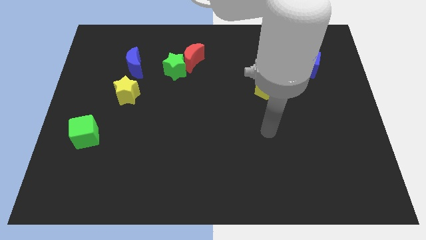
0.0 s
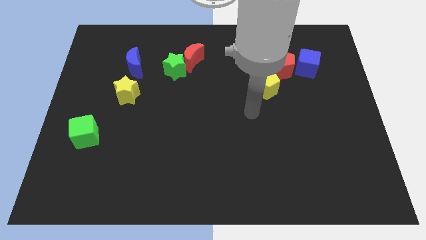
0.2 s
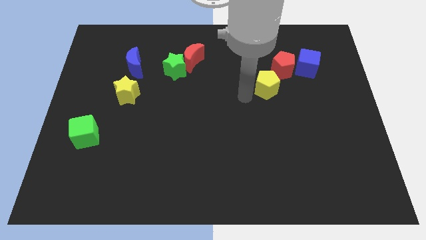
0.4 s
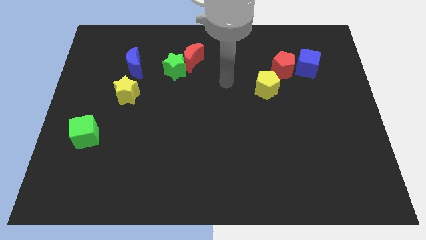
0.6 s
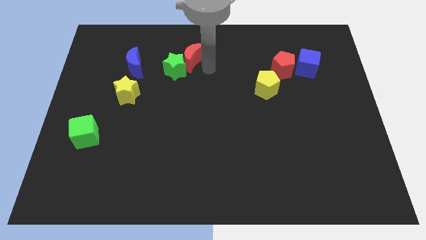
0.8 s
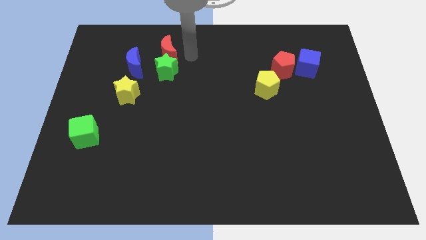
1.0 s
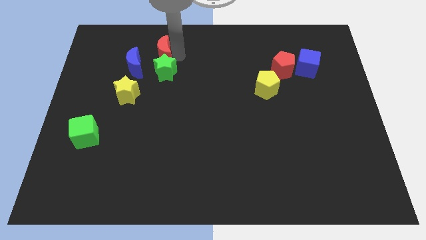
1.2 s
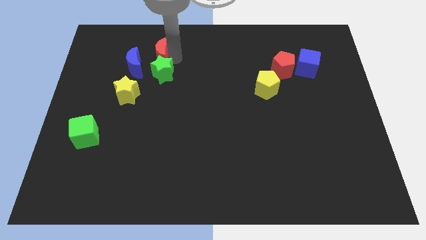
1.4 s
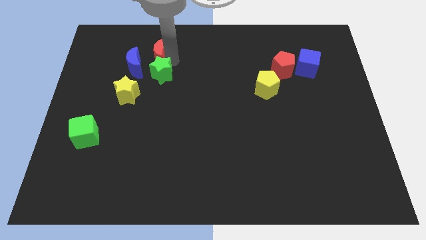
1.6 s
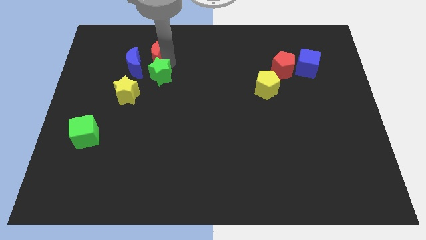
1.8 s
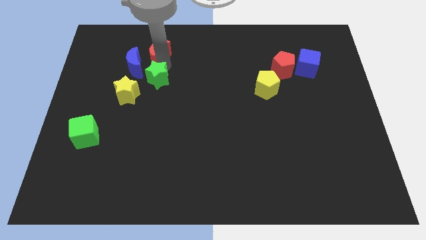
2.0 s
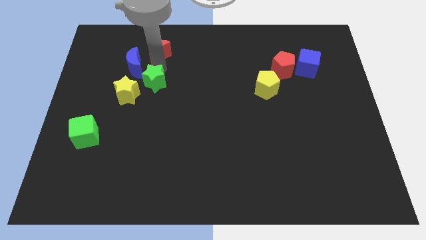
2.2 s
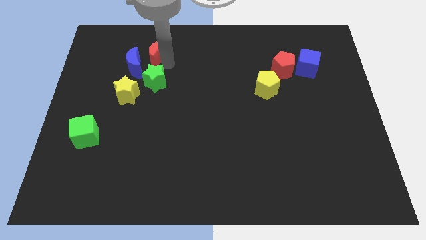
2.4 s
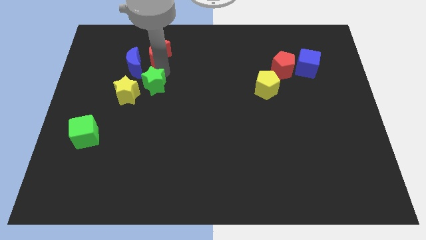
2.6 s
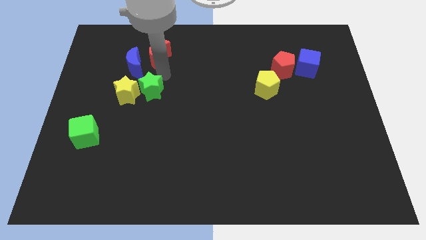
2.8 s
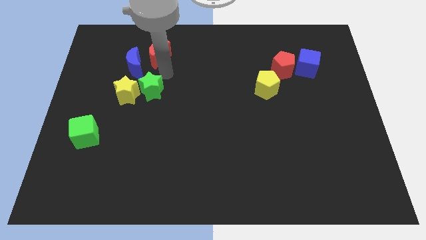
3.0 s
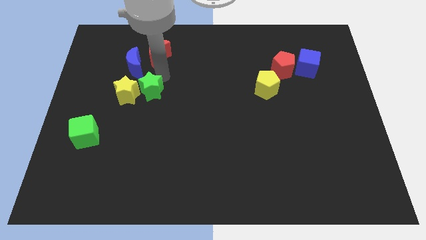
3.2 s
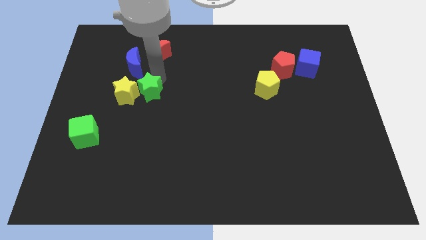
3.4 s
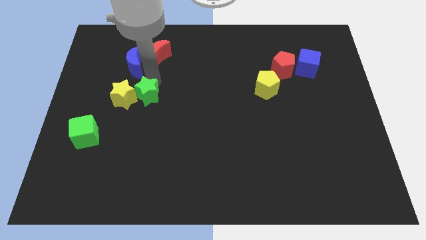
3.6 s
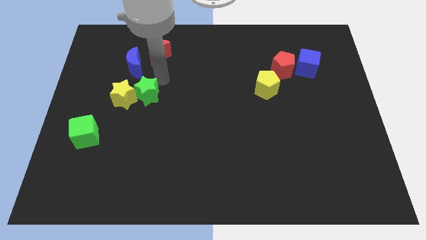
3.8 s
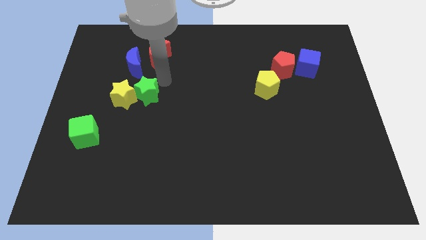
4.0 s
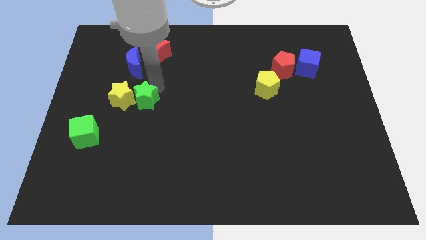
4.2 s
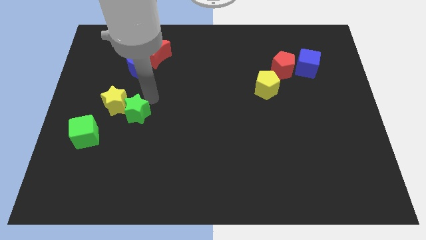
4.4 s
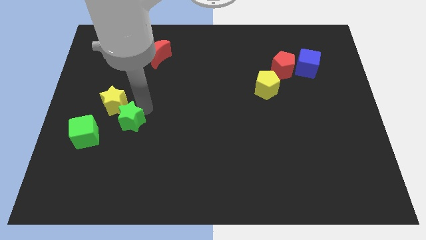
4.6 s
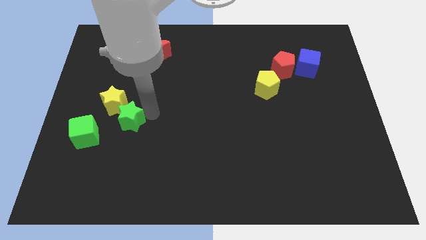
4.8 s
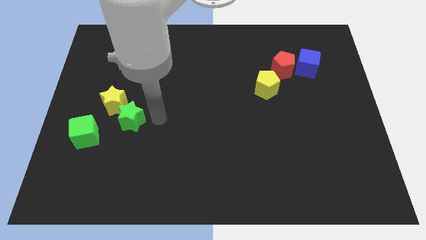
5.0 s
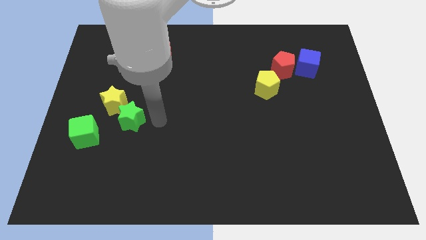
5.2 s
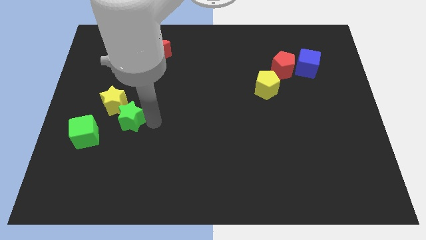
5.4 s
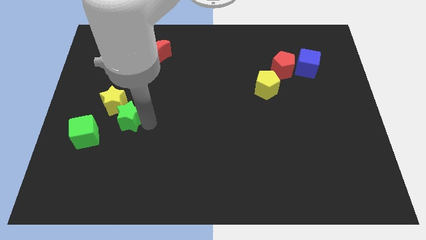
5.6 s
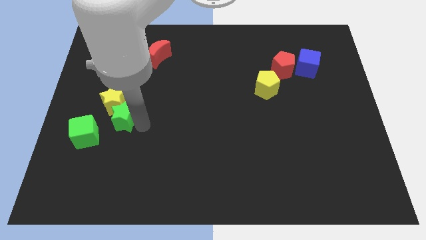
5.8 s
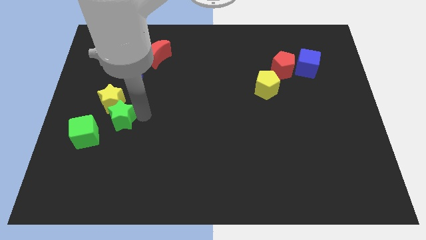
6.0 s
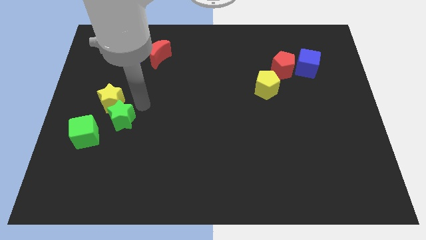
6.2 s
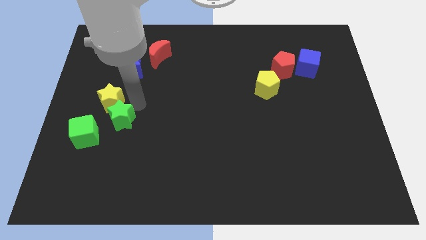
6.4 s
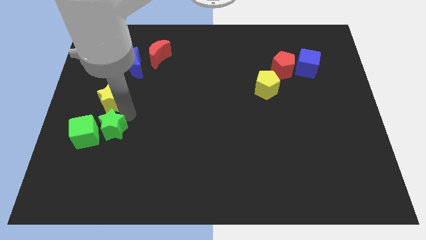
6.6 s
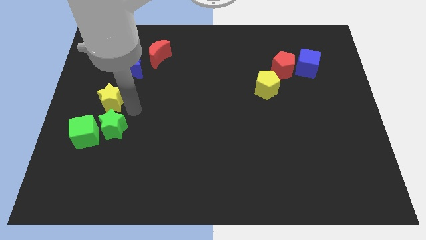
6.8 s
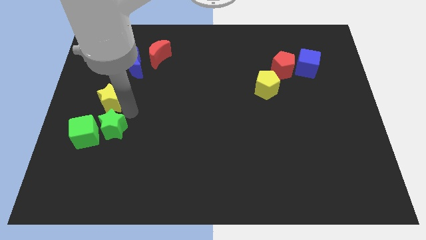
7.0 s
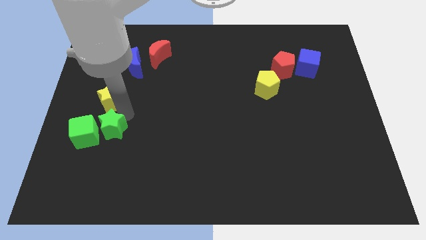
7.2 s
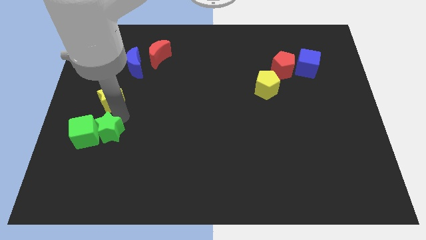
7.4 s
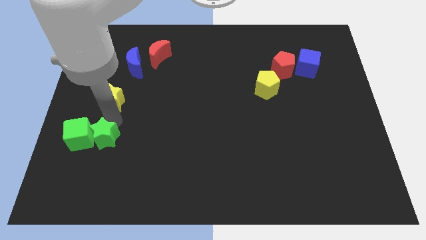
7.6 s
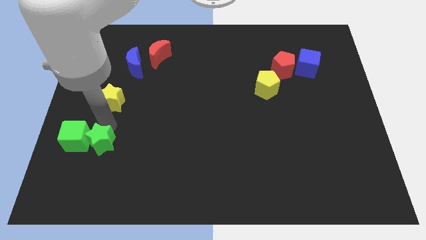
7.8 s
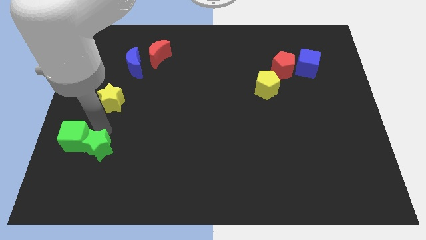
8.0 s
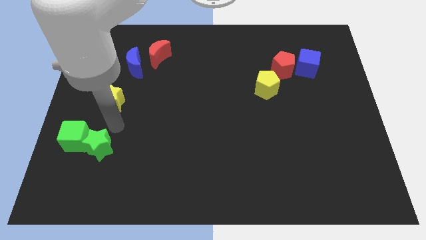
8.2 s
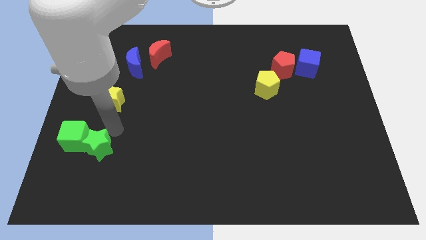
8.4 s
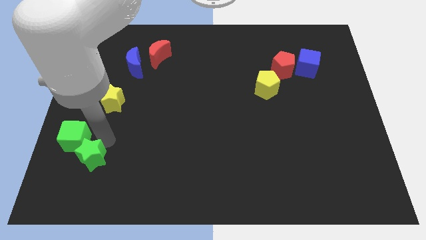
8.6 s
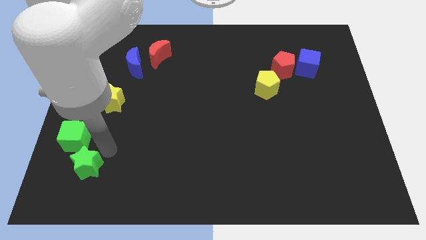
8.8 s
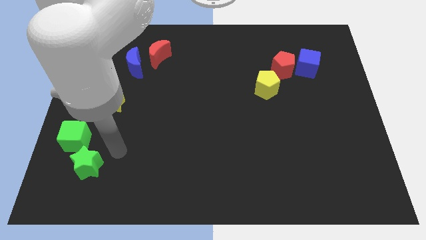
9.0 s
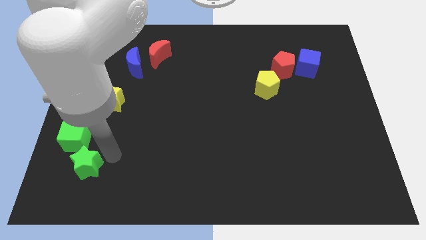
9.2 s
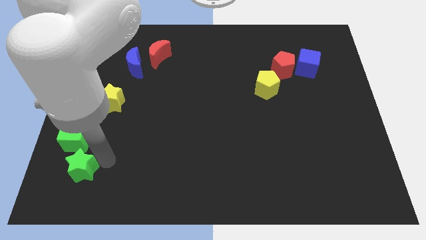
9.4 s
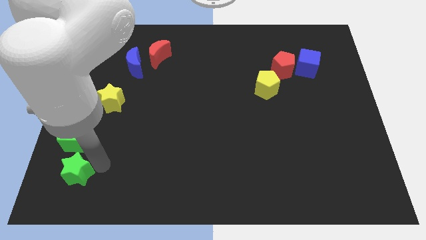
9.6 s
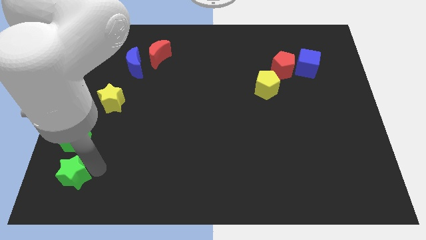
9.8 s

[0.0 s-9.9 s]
put the green star to the lower left corner

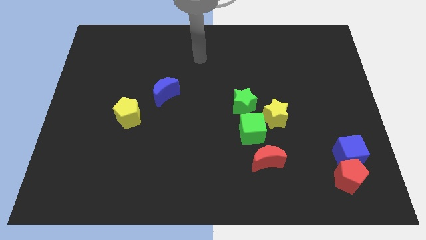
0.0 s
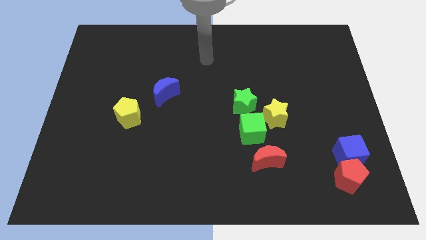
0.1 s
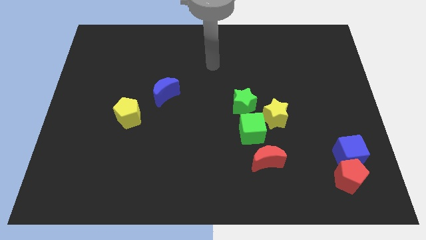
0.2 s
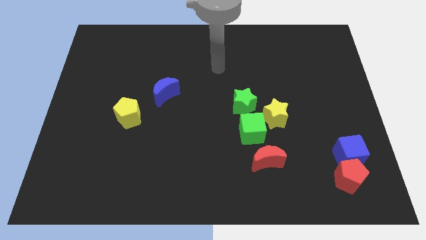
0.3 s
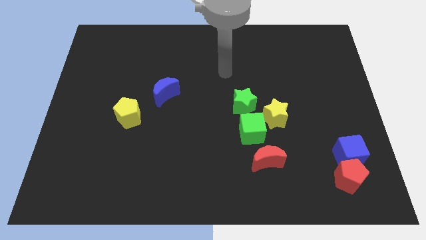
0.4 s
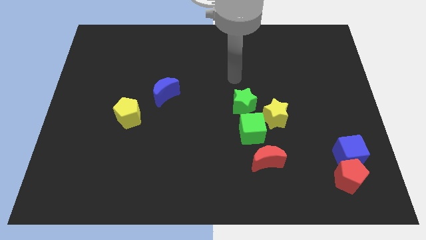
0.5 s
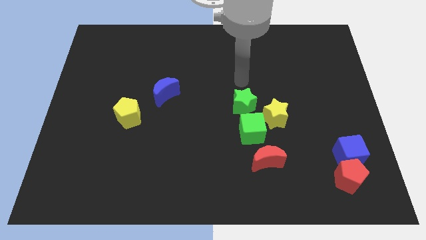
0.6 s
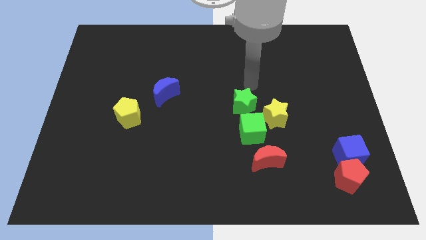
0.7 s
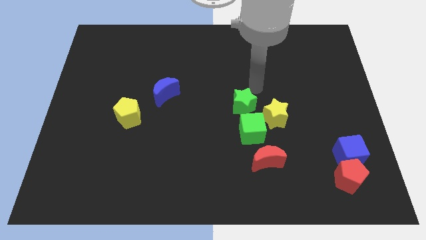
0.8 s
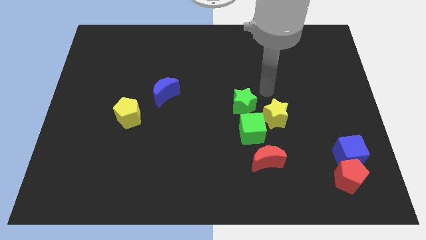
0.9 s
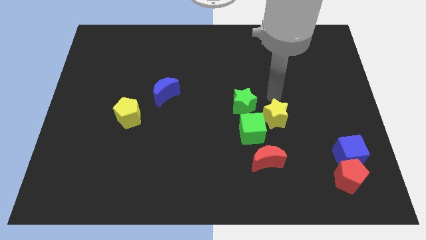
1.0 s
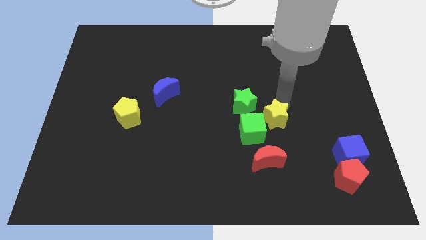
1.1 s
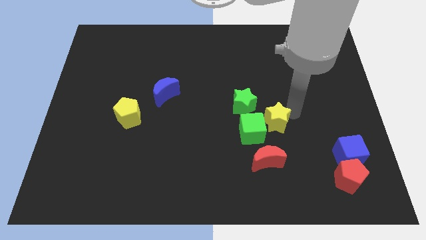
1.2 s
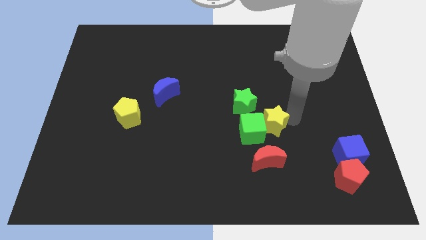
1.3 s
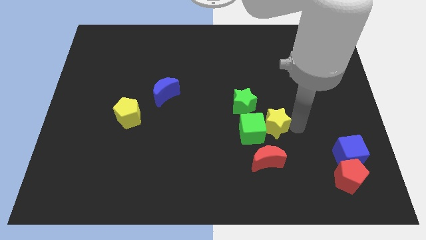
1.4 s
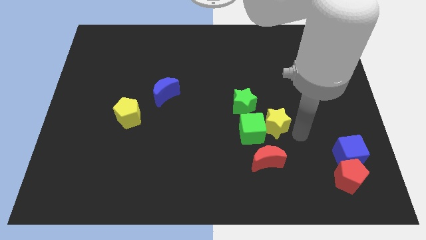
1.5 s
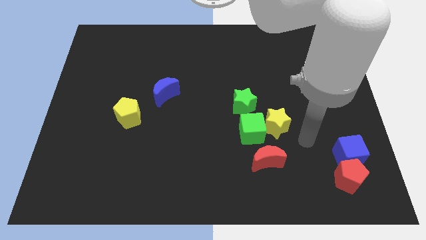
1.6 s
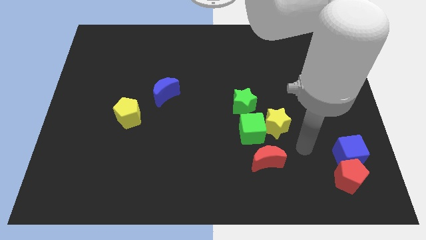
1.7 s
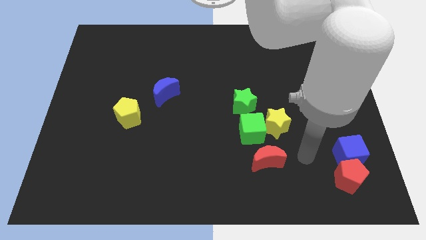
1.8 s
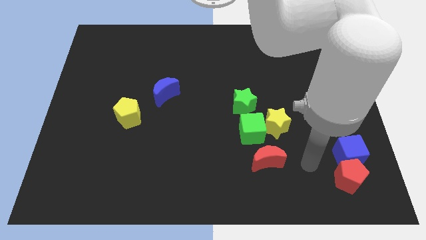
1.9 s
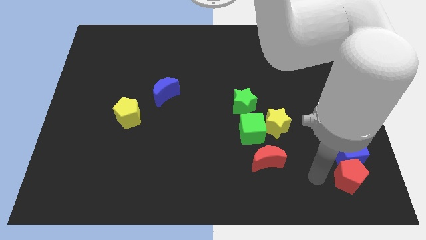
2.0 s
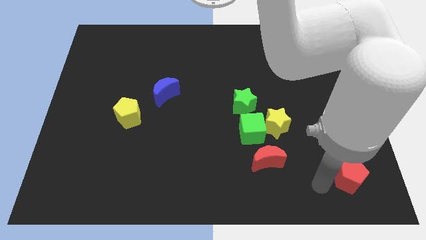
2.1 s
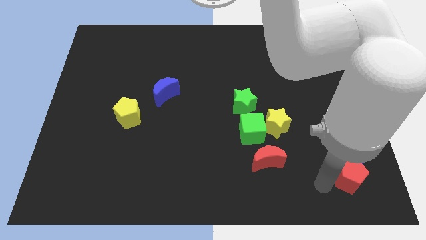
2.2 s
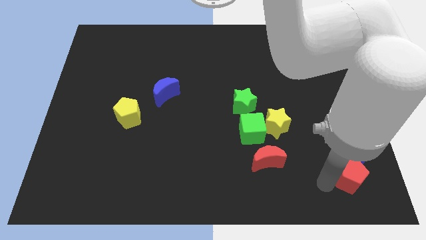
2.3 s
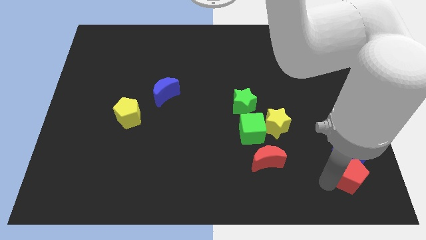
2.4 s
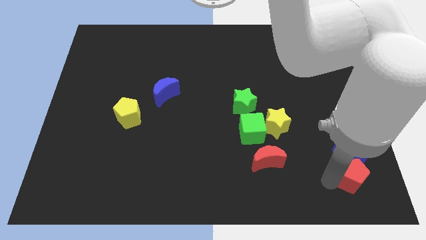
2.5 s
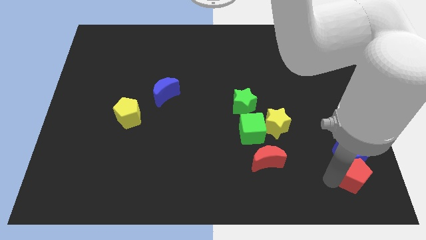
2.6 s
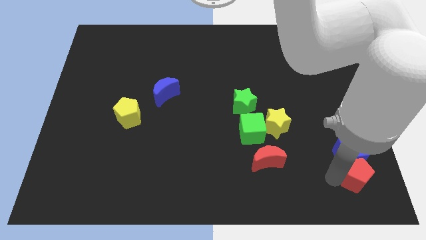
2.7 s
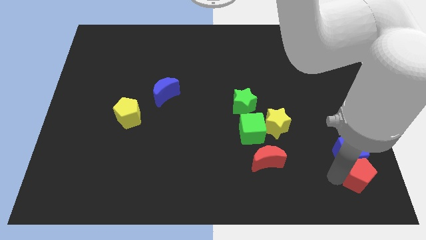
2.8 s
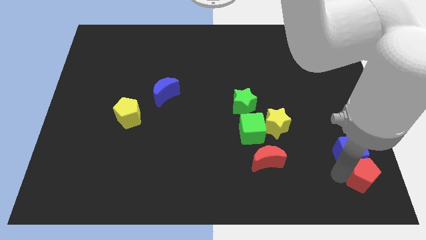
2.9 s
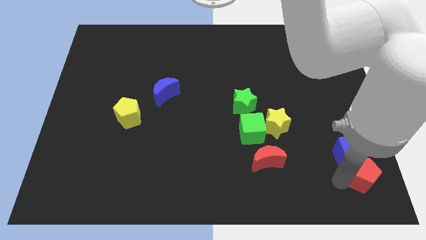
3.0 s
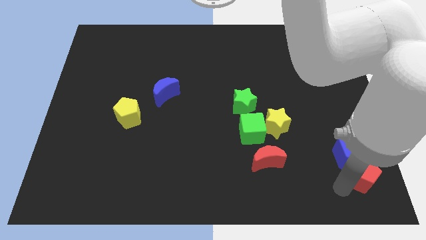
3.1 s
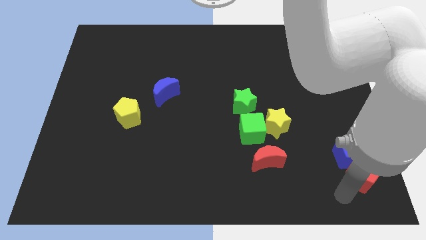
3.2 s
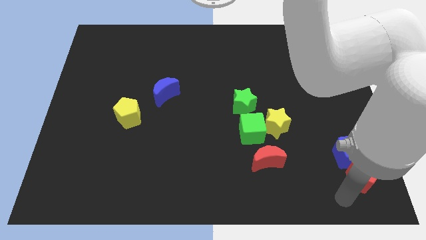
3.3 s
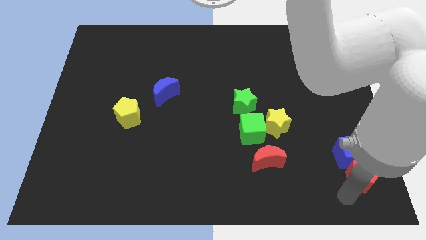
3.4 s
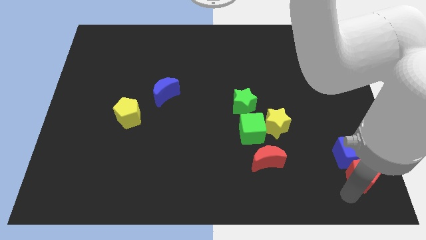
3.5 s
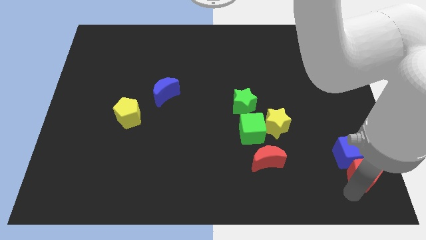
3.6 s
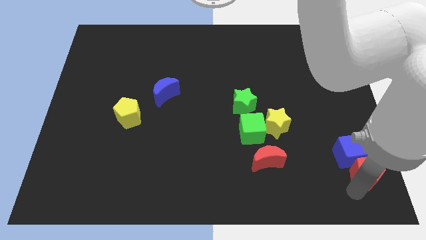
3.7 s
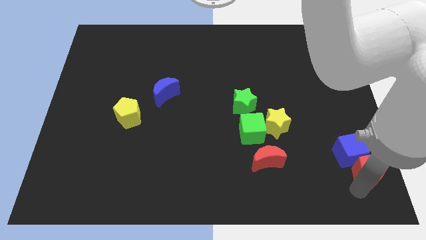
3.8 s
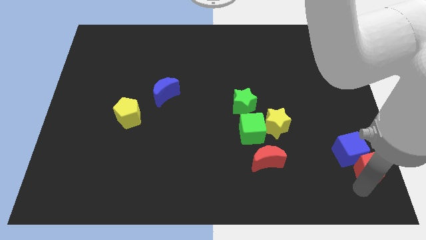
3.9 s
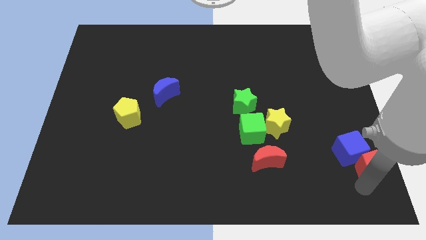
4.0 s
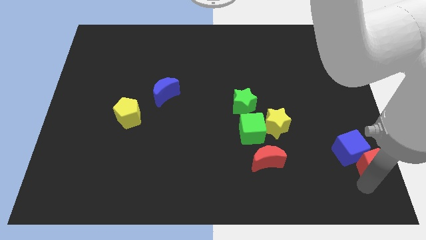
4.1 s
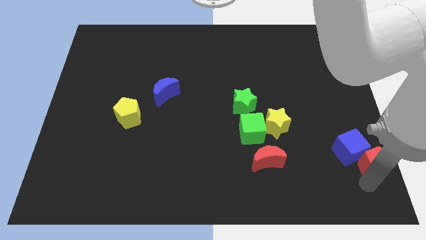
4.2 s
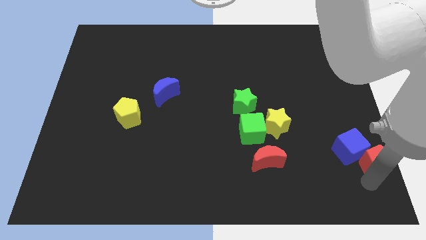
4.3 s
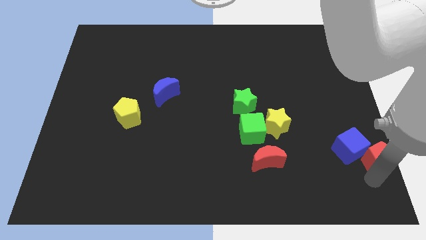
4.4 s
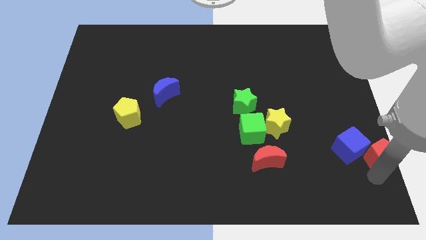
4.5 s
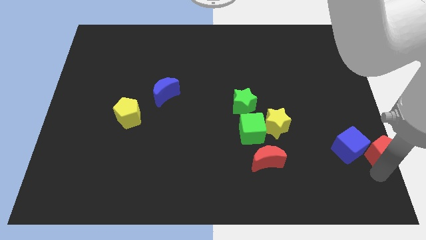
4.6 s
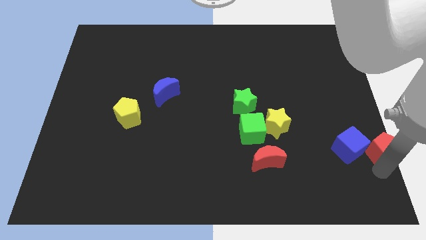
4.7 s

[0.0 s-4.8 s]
push the red pentagon to the right side of the board
